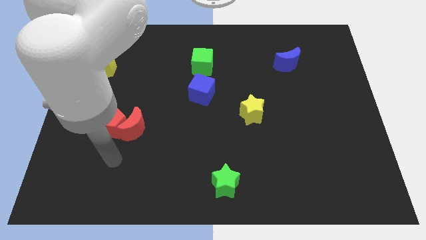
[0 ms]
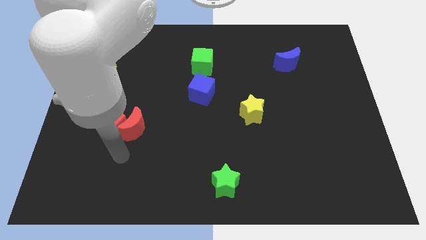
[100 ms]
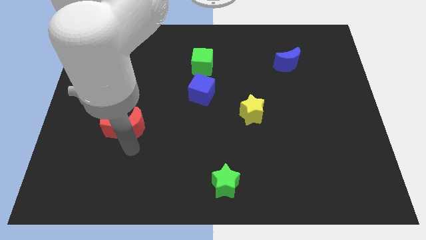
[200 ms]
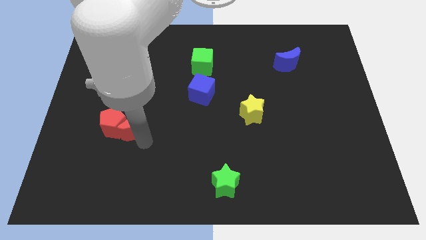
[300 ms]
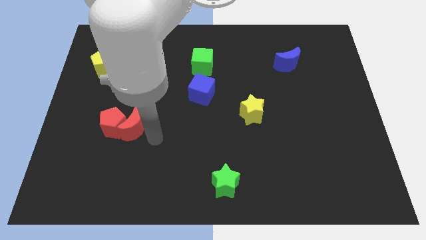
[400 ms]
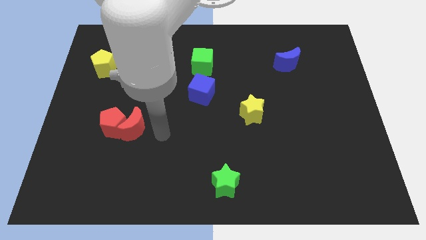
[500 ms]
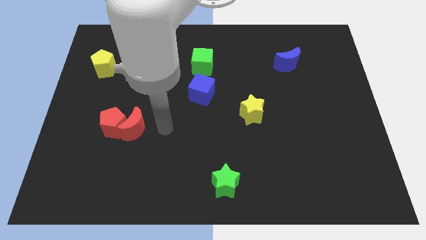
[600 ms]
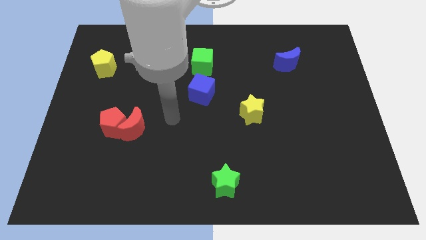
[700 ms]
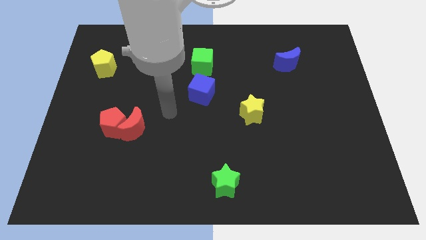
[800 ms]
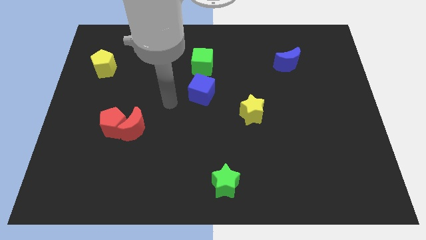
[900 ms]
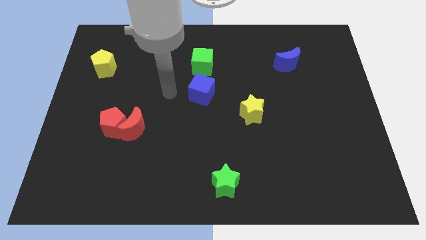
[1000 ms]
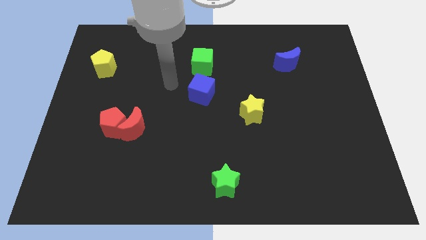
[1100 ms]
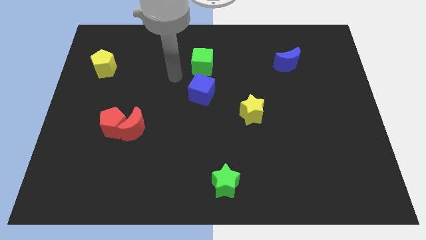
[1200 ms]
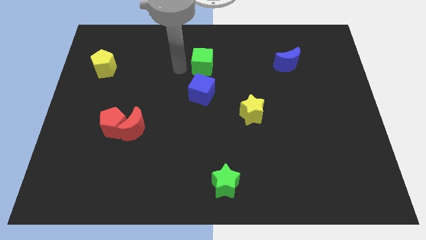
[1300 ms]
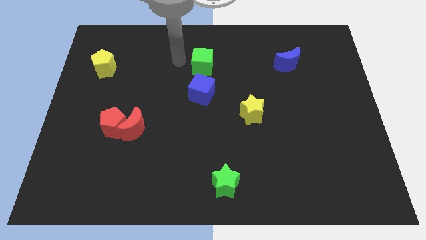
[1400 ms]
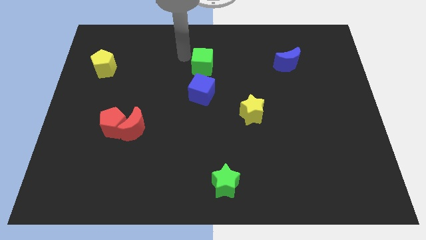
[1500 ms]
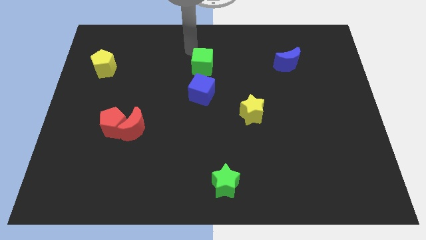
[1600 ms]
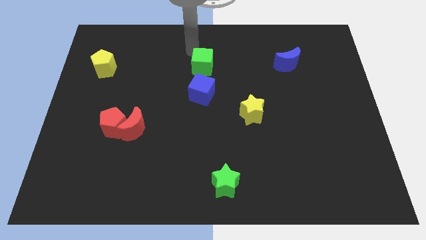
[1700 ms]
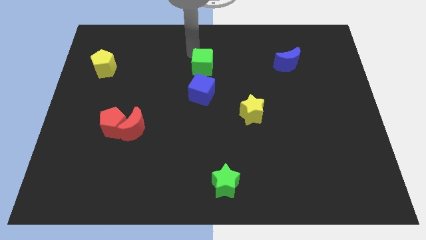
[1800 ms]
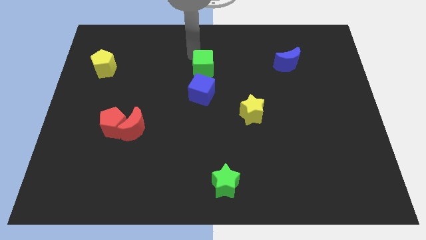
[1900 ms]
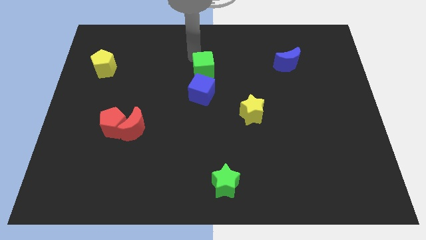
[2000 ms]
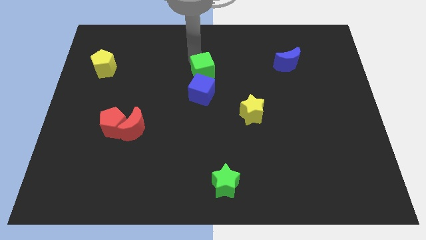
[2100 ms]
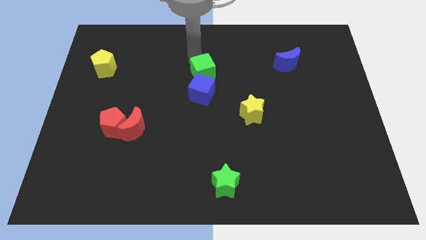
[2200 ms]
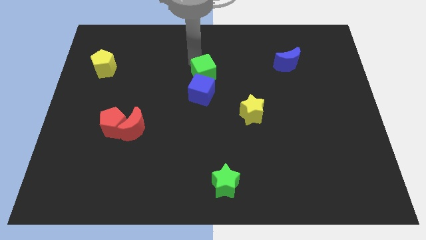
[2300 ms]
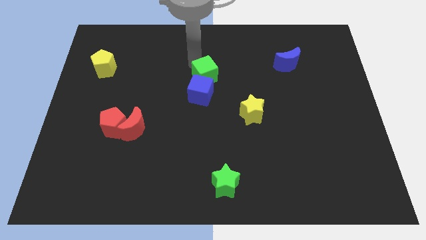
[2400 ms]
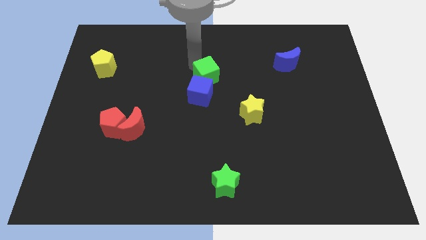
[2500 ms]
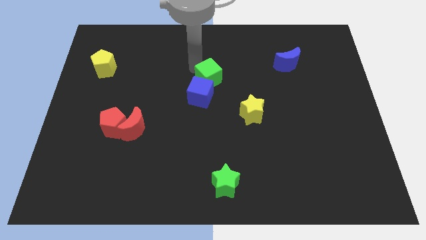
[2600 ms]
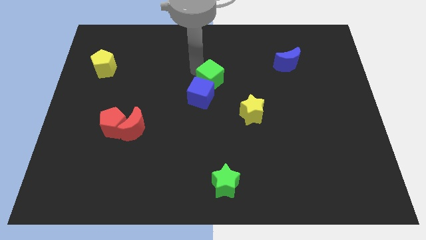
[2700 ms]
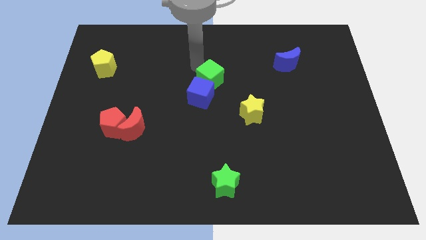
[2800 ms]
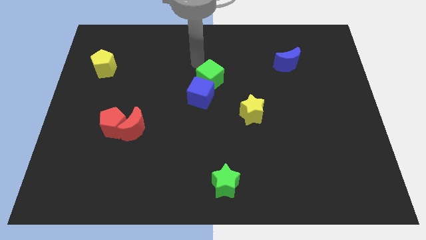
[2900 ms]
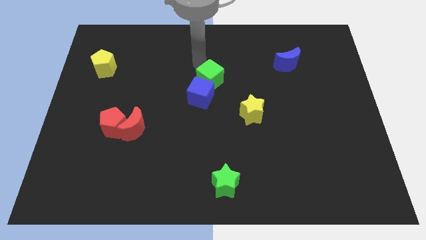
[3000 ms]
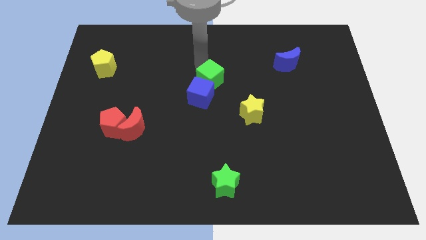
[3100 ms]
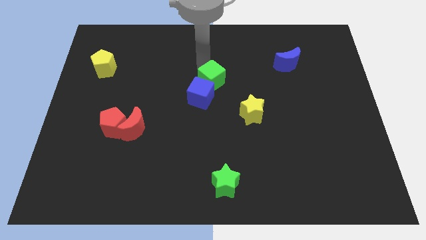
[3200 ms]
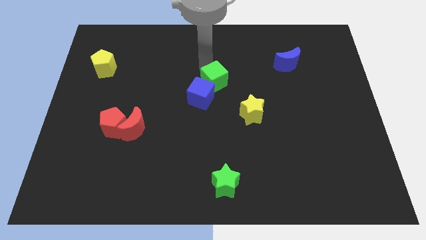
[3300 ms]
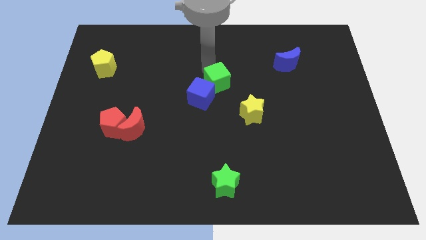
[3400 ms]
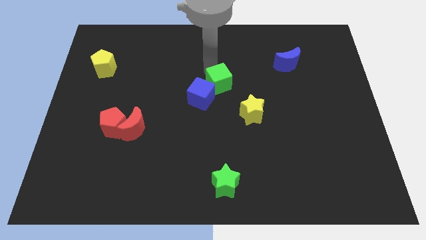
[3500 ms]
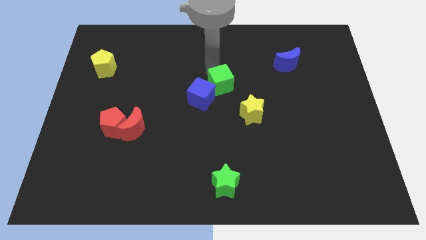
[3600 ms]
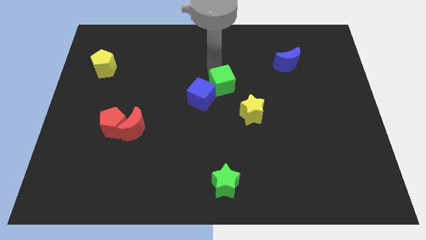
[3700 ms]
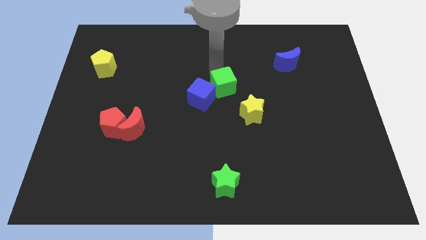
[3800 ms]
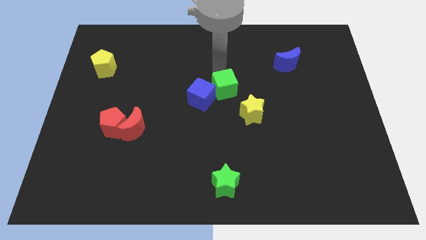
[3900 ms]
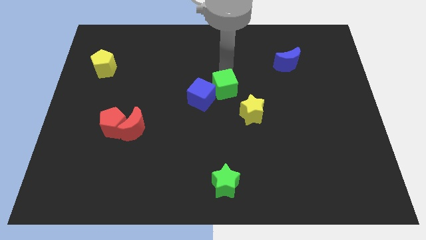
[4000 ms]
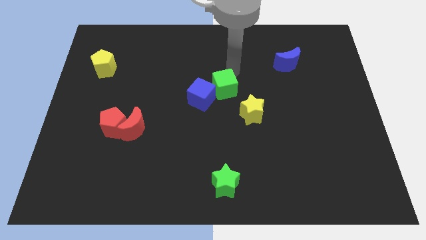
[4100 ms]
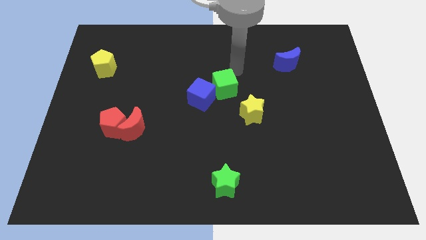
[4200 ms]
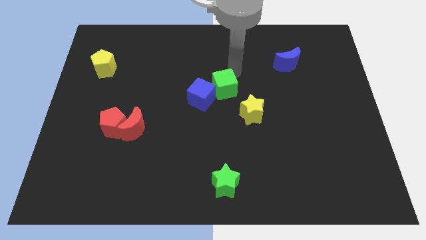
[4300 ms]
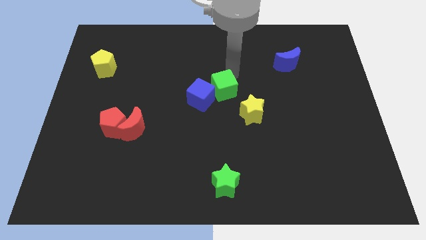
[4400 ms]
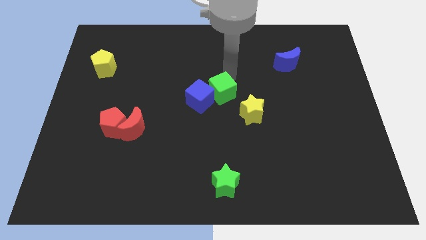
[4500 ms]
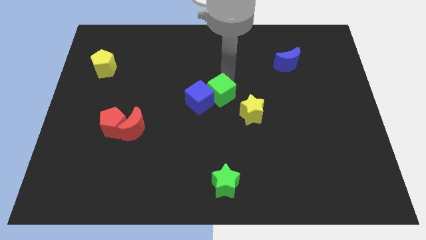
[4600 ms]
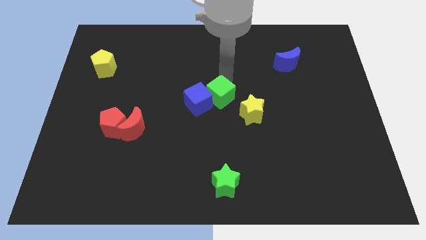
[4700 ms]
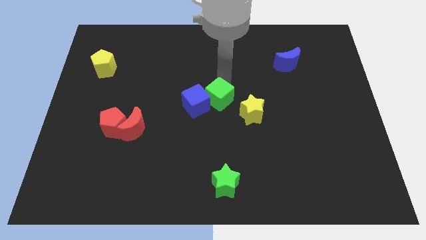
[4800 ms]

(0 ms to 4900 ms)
push the green cube to the left side of the yellow star

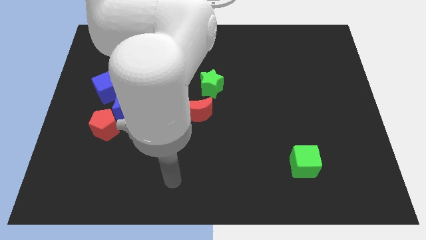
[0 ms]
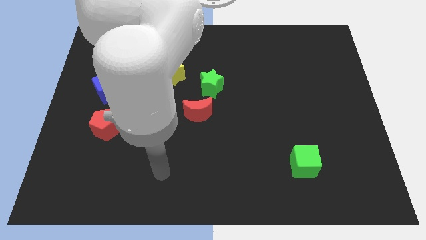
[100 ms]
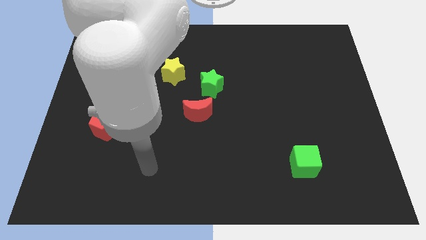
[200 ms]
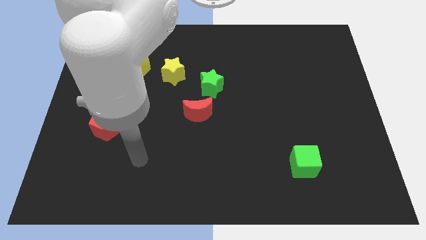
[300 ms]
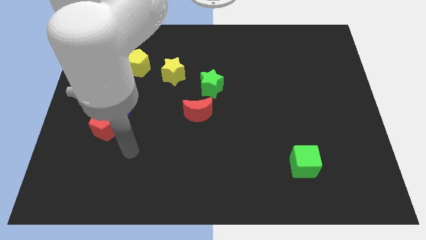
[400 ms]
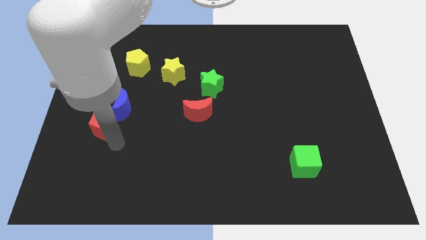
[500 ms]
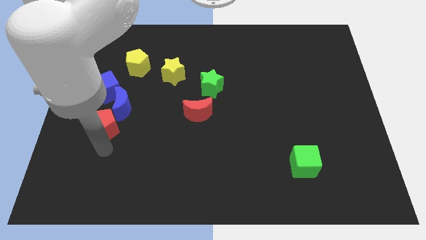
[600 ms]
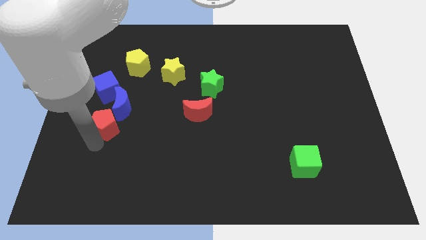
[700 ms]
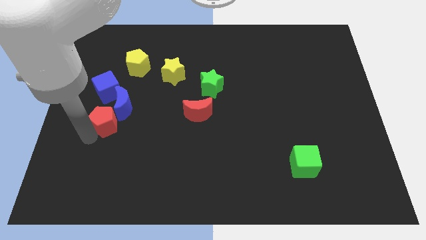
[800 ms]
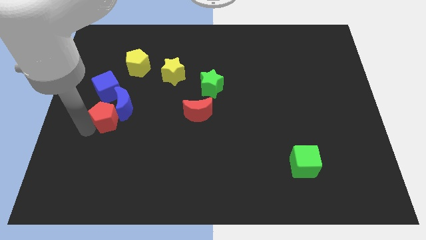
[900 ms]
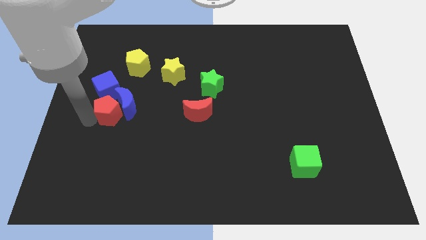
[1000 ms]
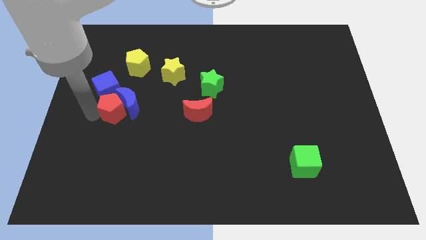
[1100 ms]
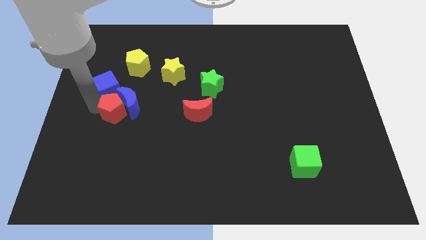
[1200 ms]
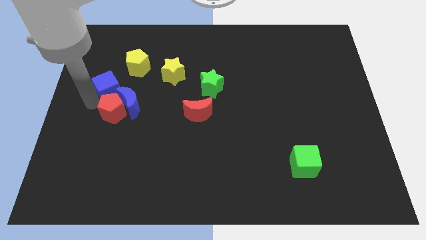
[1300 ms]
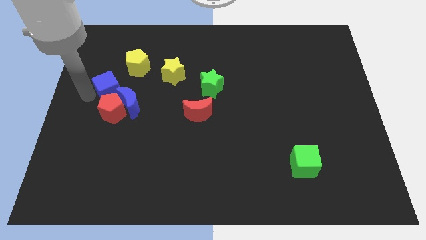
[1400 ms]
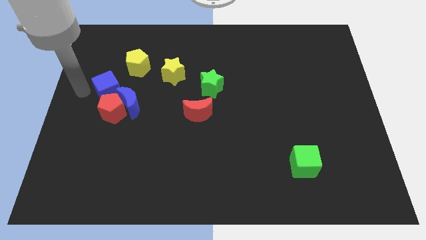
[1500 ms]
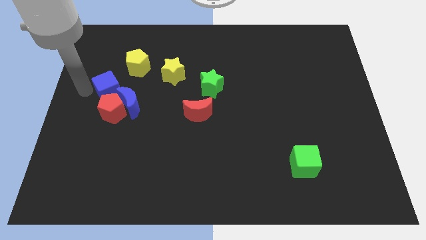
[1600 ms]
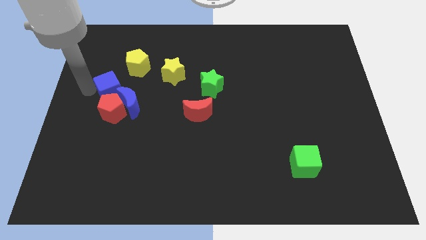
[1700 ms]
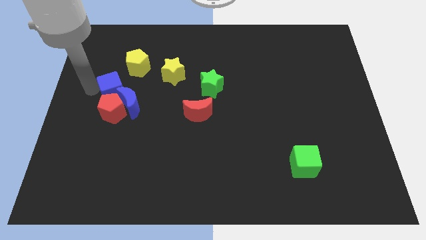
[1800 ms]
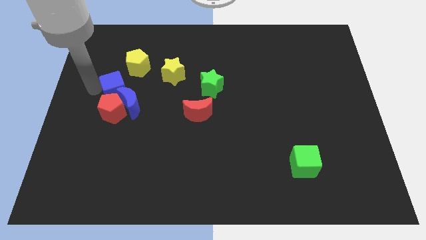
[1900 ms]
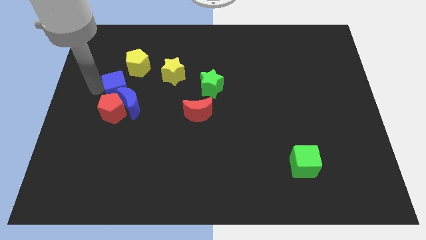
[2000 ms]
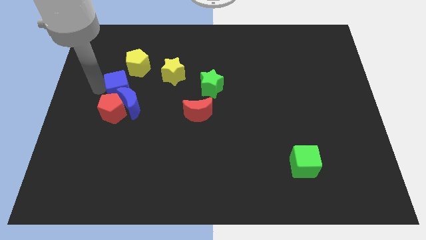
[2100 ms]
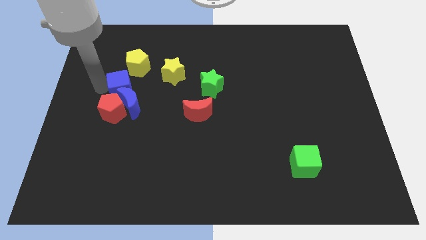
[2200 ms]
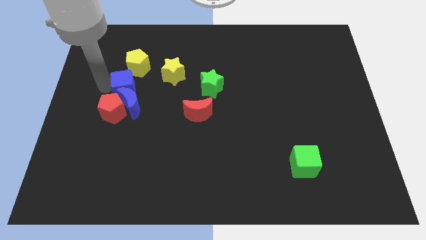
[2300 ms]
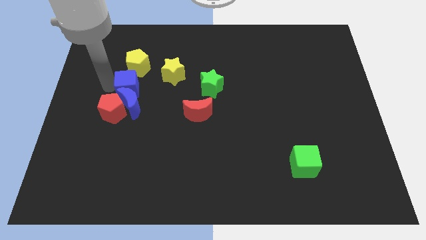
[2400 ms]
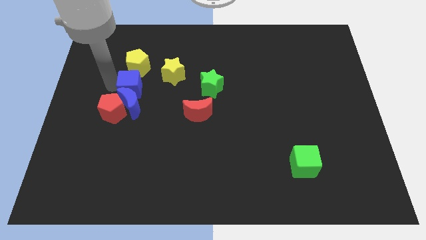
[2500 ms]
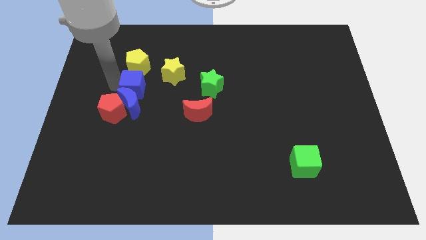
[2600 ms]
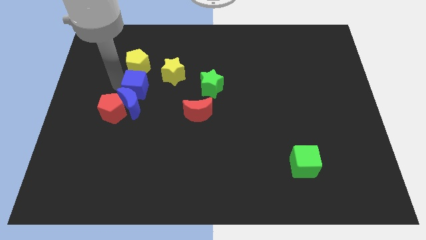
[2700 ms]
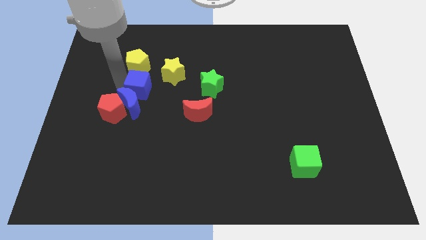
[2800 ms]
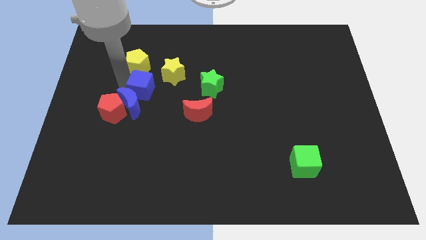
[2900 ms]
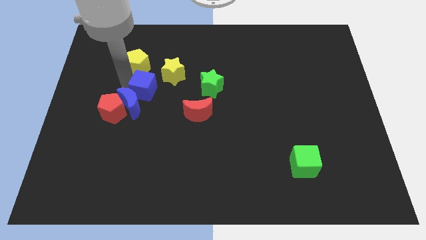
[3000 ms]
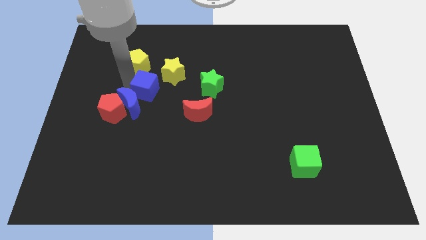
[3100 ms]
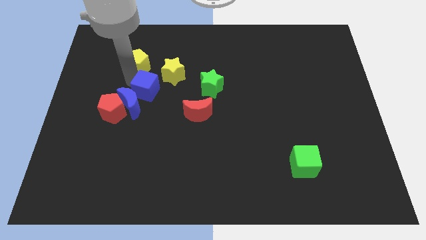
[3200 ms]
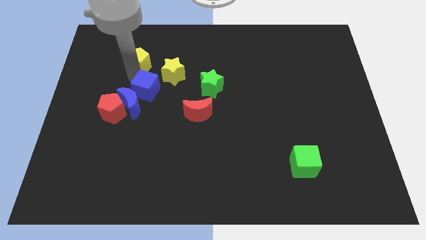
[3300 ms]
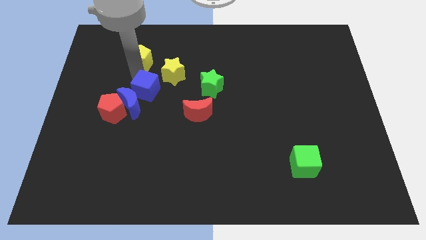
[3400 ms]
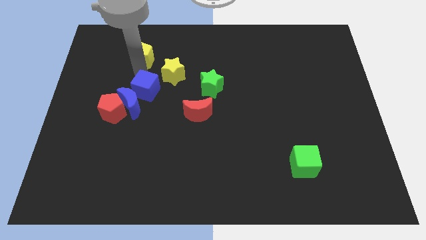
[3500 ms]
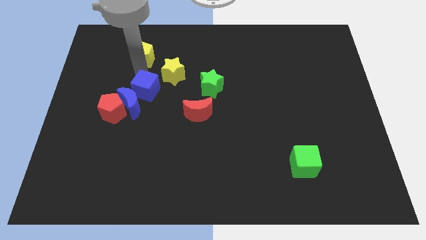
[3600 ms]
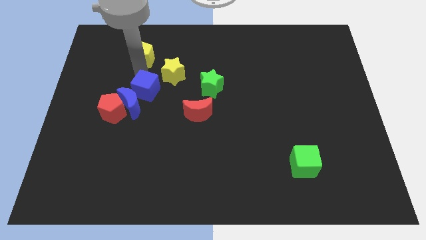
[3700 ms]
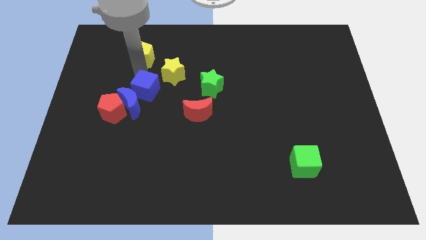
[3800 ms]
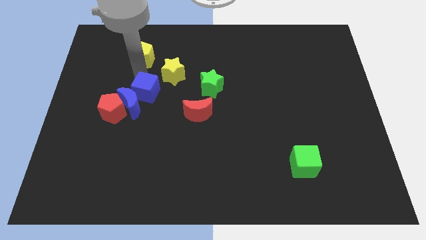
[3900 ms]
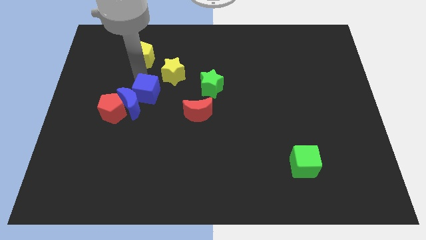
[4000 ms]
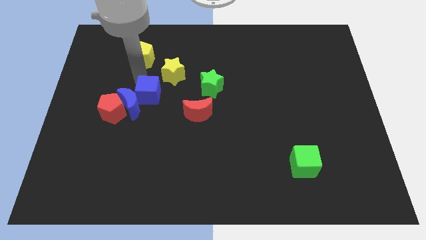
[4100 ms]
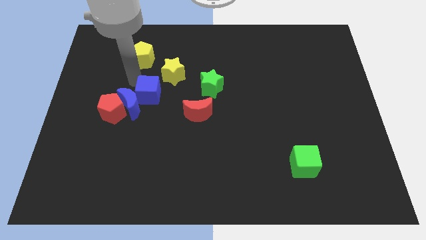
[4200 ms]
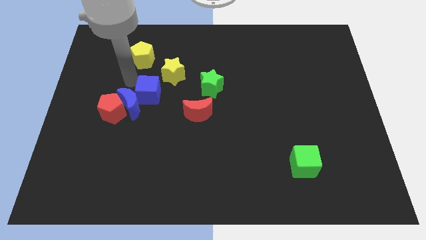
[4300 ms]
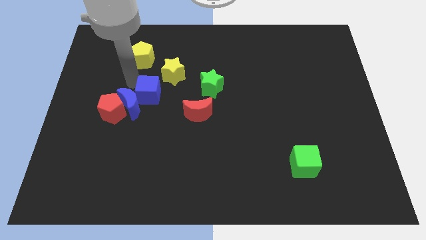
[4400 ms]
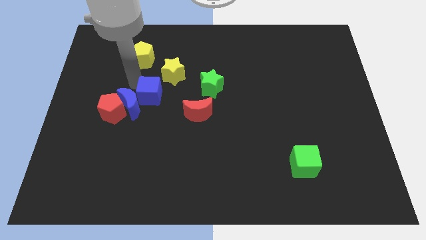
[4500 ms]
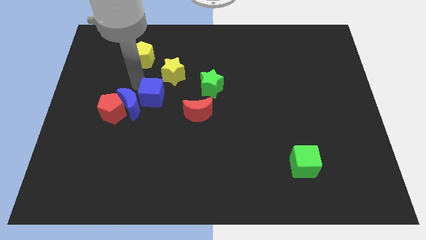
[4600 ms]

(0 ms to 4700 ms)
push the blue cube to the bottom side of the yellow star
